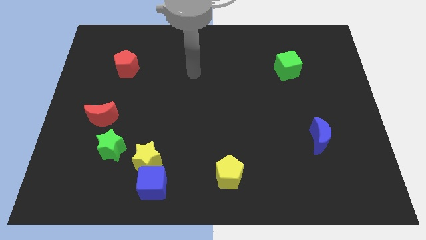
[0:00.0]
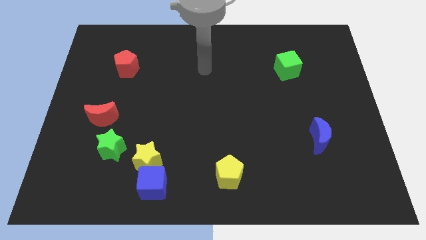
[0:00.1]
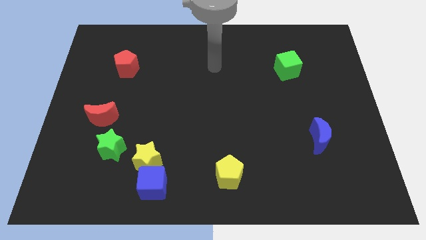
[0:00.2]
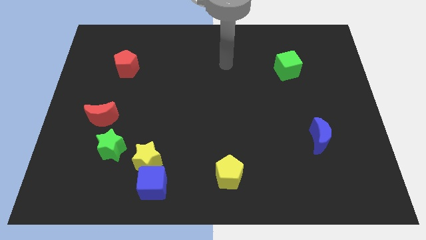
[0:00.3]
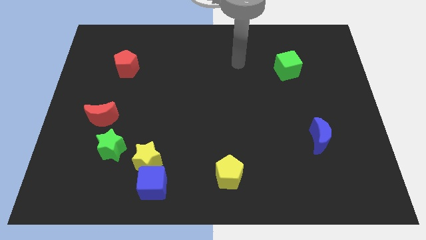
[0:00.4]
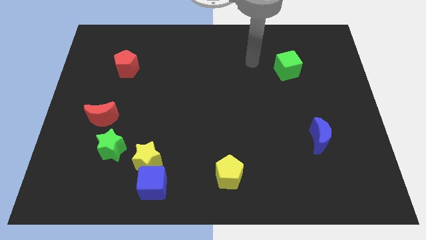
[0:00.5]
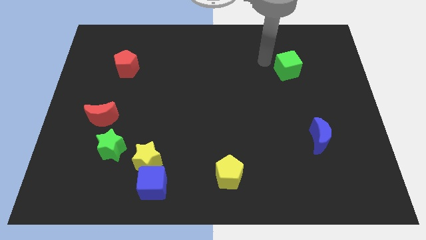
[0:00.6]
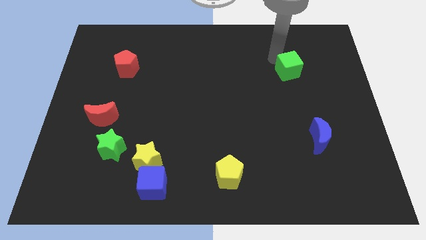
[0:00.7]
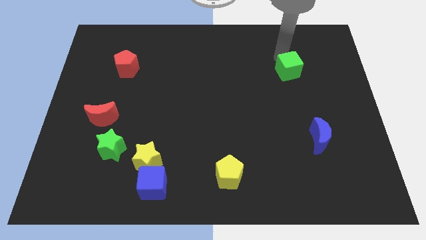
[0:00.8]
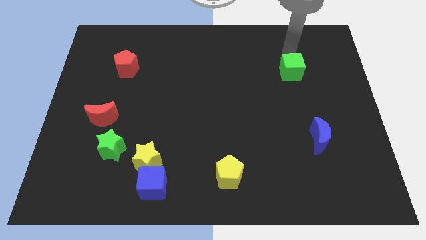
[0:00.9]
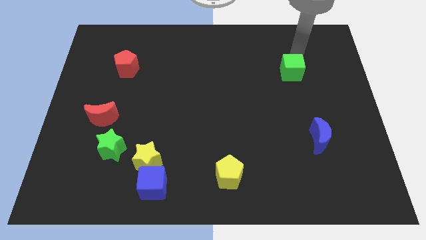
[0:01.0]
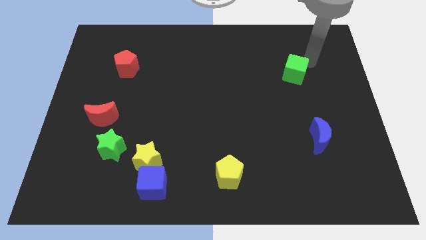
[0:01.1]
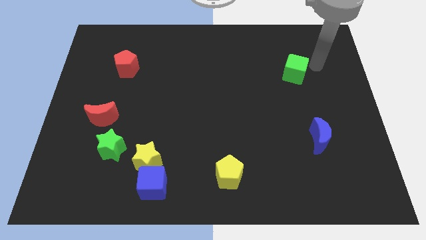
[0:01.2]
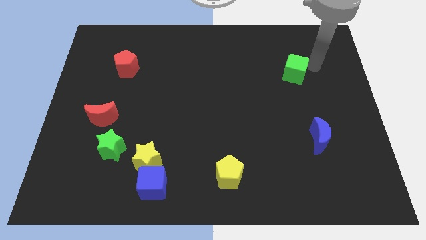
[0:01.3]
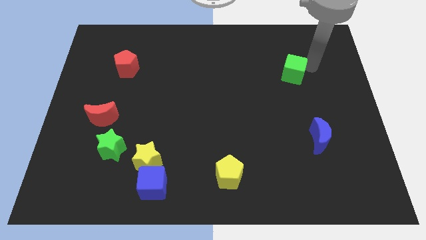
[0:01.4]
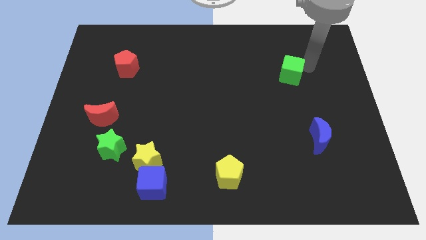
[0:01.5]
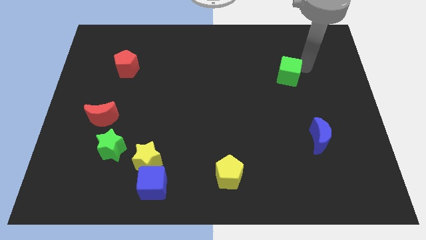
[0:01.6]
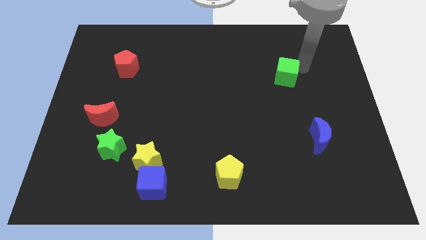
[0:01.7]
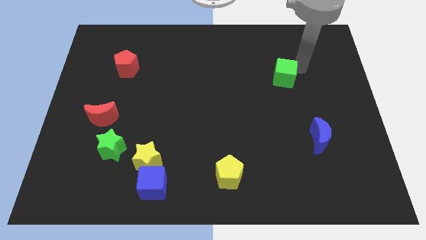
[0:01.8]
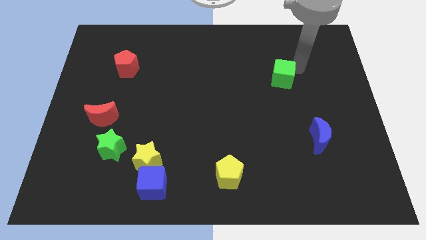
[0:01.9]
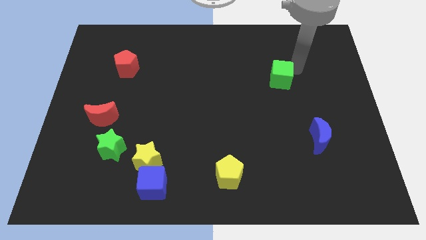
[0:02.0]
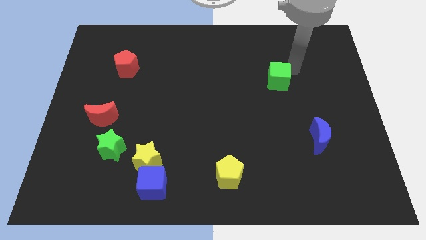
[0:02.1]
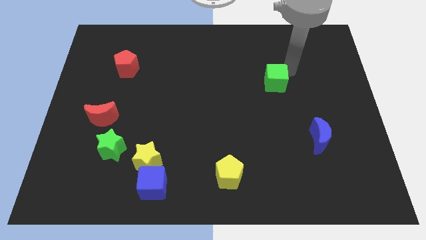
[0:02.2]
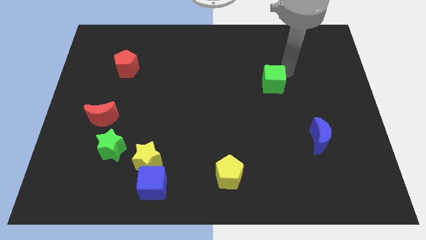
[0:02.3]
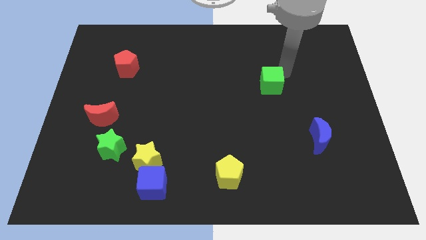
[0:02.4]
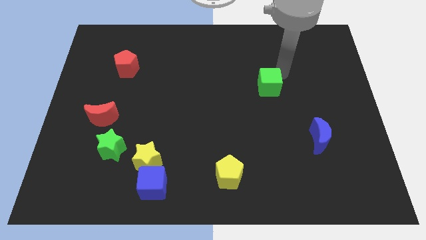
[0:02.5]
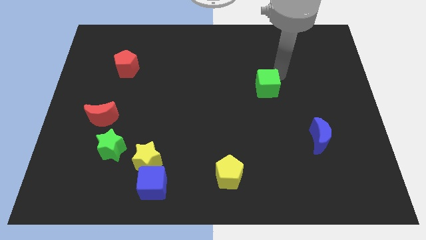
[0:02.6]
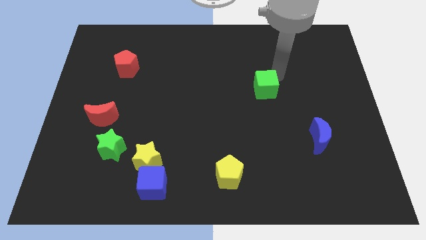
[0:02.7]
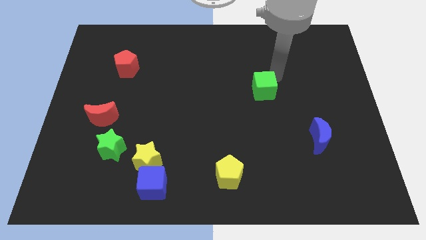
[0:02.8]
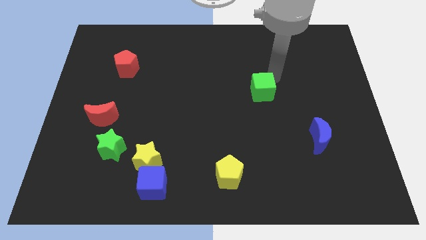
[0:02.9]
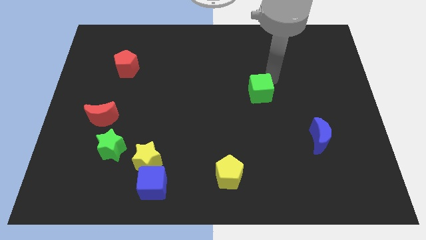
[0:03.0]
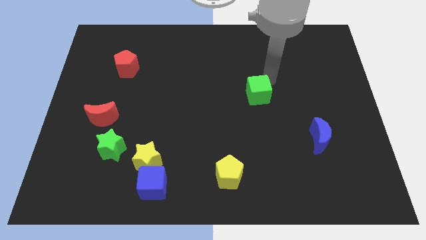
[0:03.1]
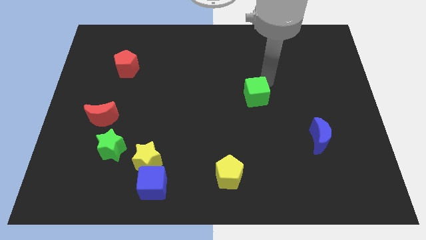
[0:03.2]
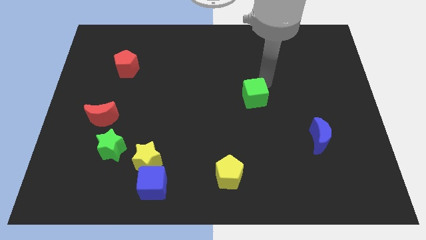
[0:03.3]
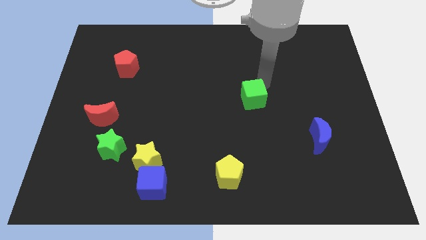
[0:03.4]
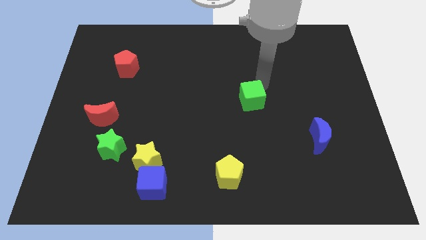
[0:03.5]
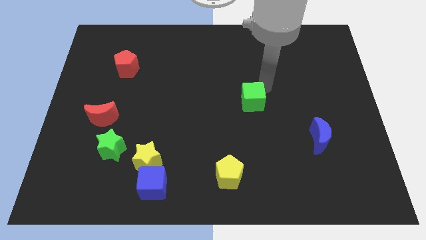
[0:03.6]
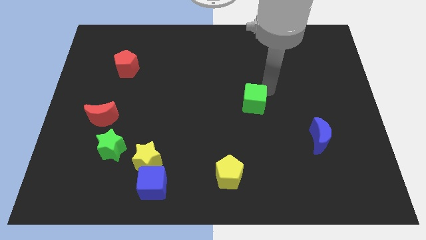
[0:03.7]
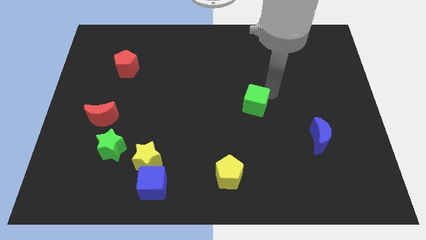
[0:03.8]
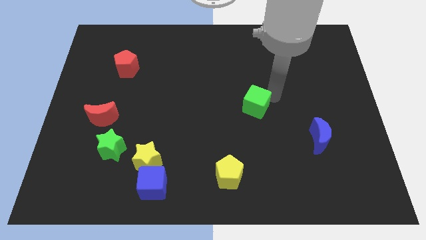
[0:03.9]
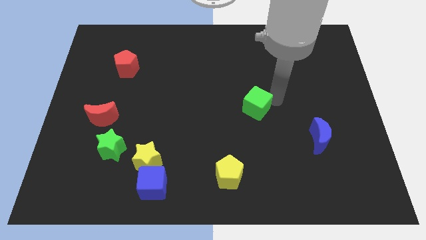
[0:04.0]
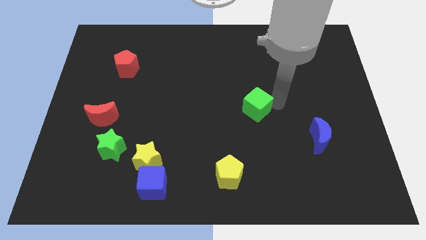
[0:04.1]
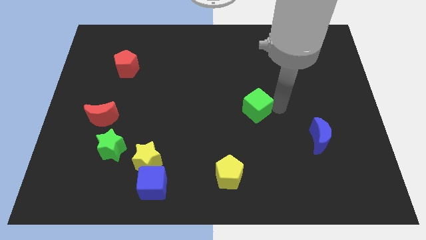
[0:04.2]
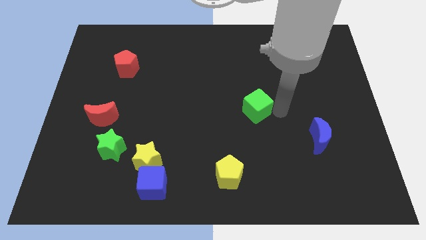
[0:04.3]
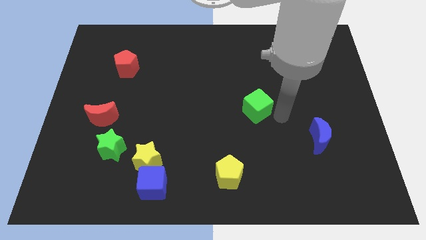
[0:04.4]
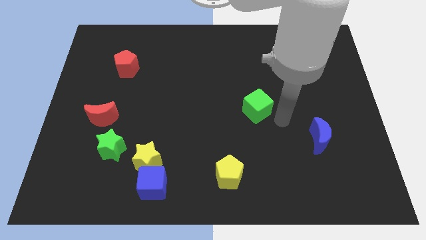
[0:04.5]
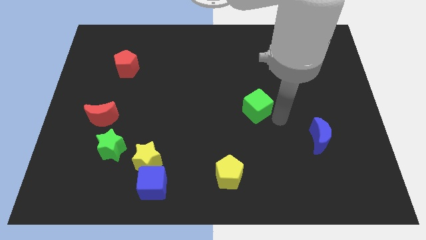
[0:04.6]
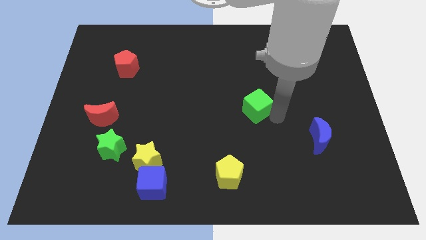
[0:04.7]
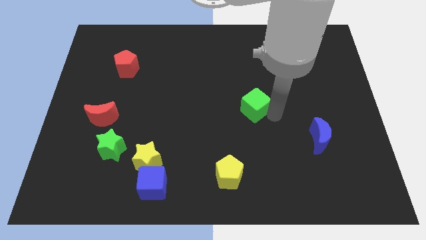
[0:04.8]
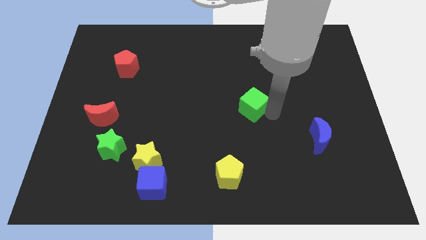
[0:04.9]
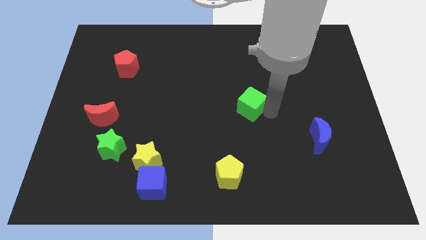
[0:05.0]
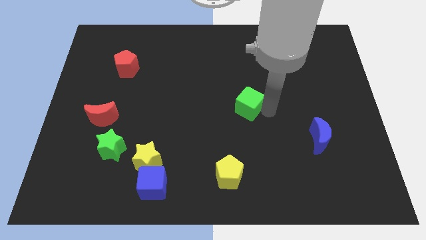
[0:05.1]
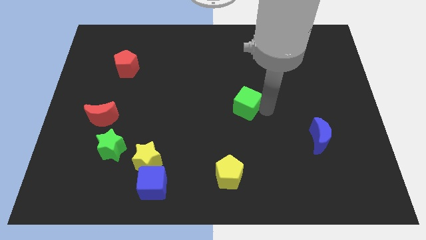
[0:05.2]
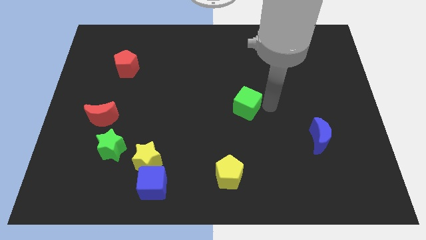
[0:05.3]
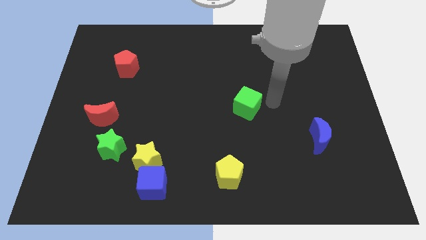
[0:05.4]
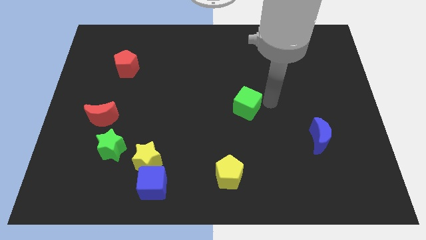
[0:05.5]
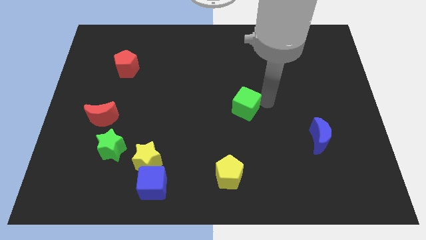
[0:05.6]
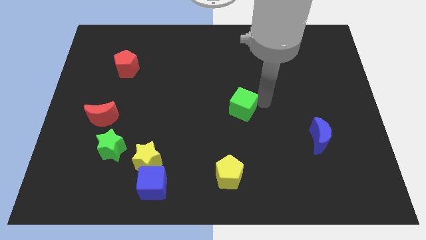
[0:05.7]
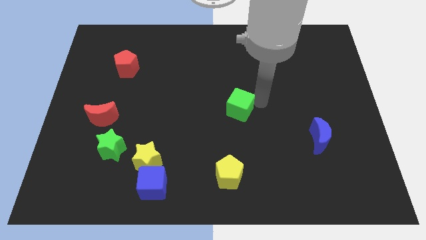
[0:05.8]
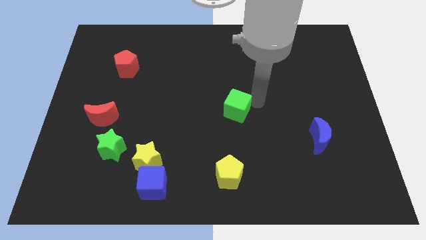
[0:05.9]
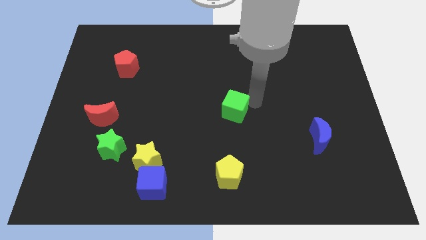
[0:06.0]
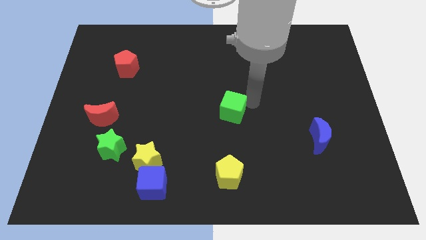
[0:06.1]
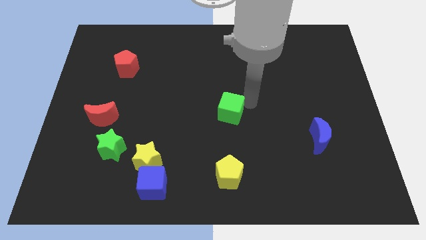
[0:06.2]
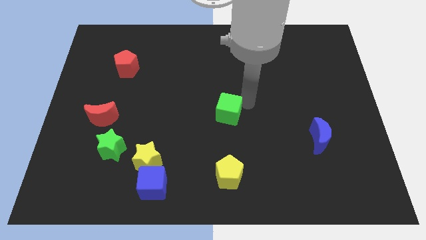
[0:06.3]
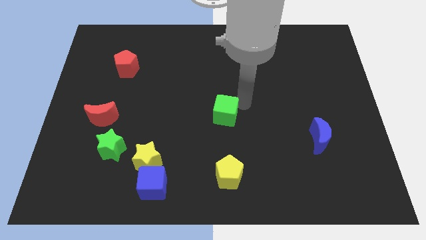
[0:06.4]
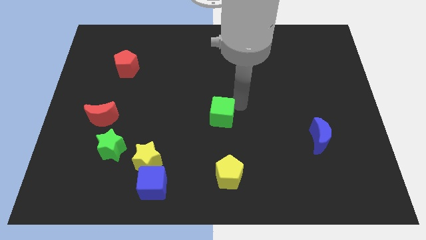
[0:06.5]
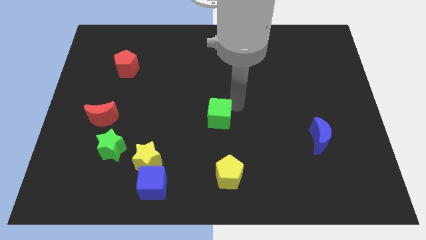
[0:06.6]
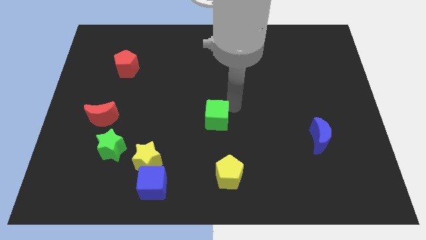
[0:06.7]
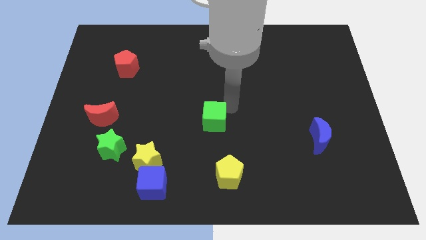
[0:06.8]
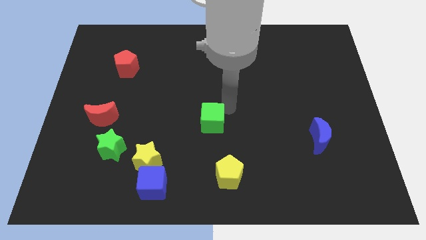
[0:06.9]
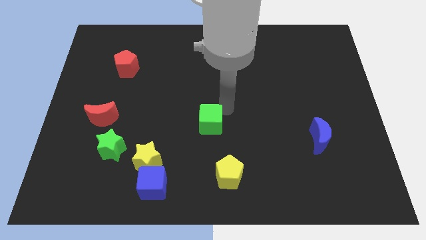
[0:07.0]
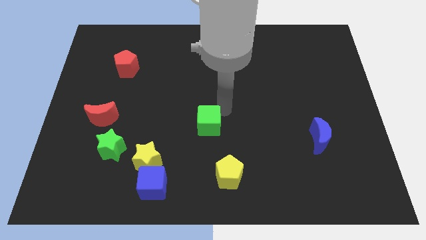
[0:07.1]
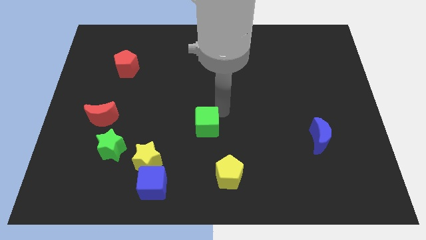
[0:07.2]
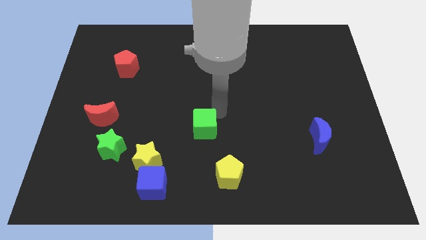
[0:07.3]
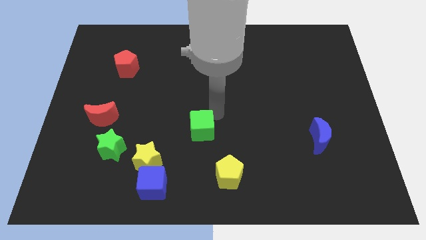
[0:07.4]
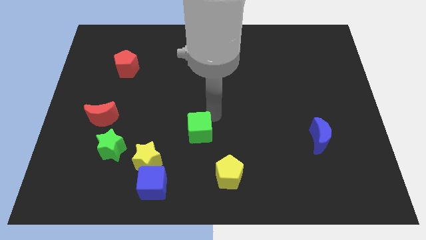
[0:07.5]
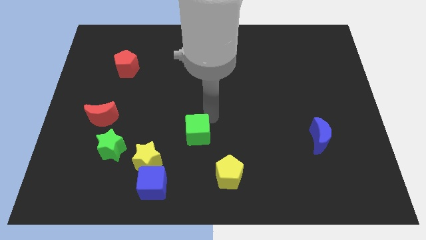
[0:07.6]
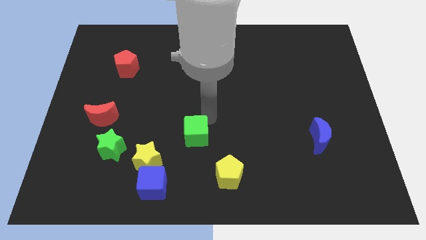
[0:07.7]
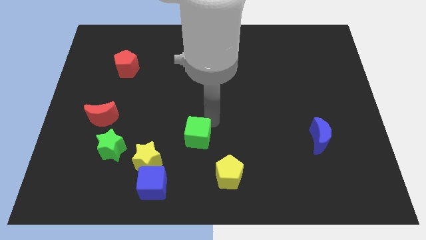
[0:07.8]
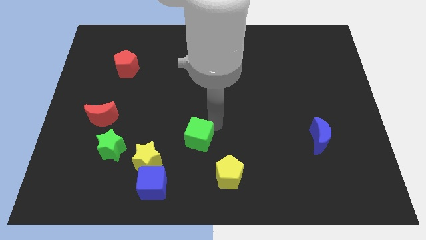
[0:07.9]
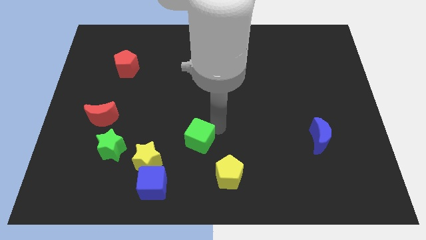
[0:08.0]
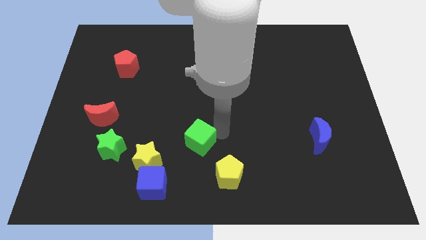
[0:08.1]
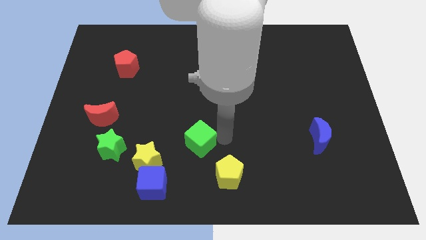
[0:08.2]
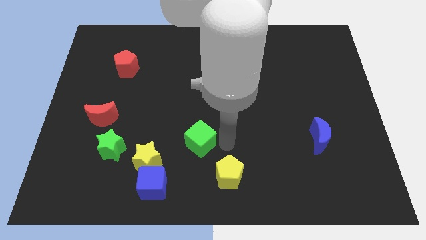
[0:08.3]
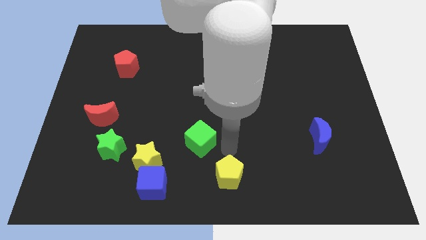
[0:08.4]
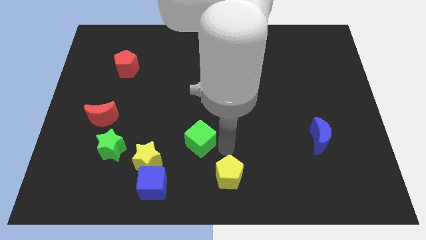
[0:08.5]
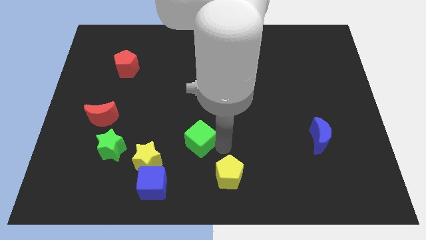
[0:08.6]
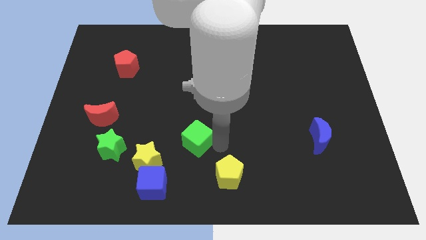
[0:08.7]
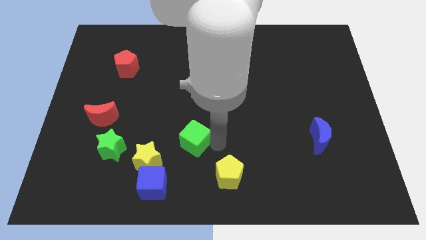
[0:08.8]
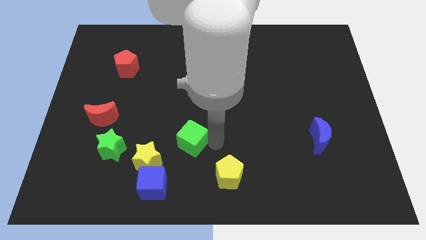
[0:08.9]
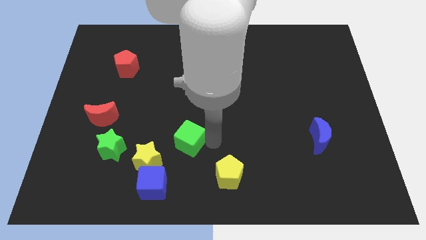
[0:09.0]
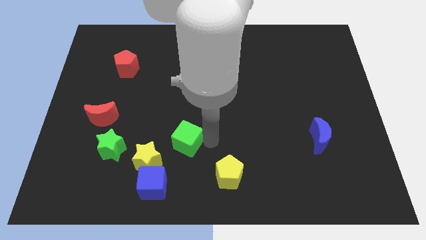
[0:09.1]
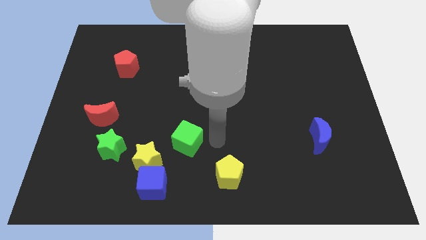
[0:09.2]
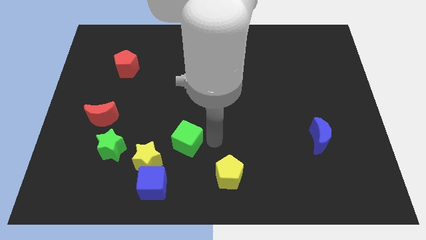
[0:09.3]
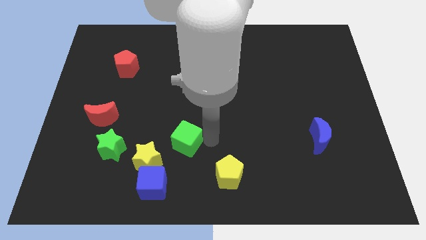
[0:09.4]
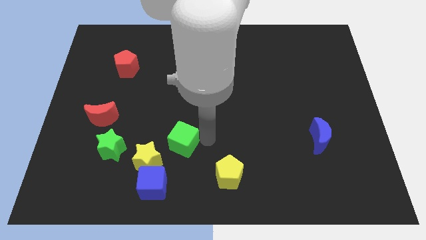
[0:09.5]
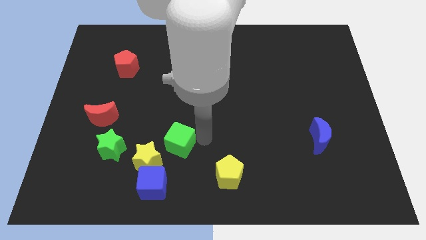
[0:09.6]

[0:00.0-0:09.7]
move the green cube to the top side of the blue cube
